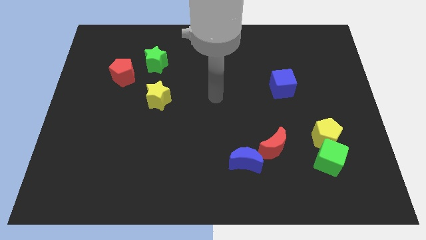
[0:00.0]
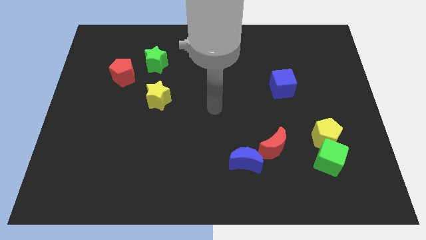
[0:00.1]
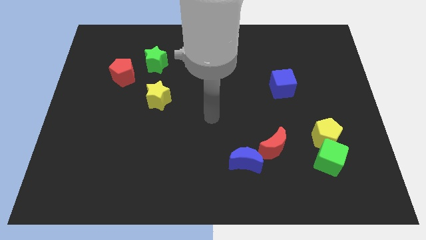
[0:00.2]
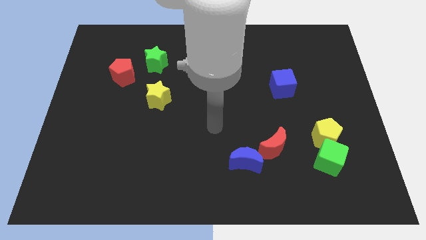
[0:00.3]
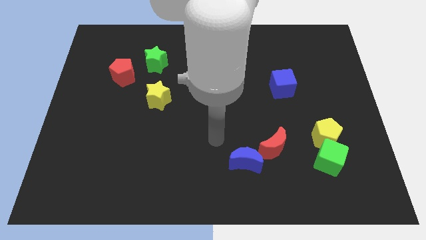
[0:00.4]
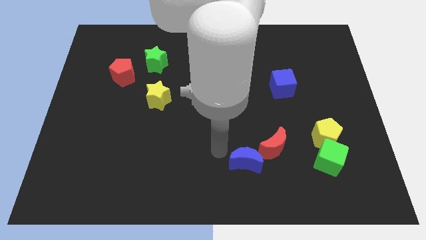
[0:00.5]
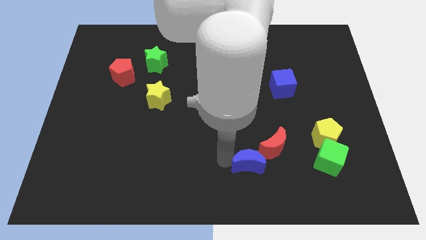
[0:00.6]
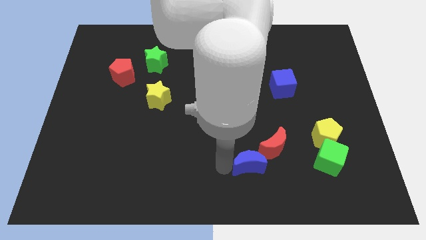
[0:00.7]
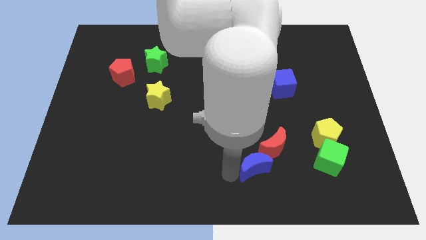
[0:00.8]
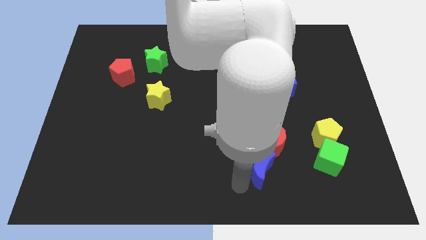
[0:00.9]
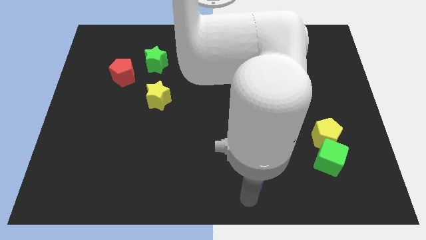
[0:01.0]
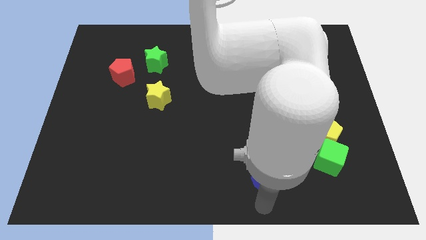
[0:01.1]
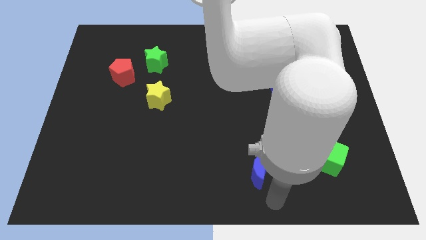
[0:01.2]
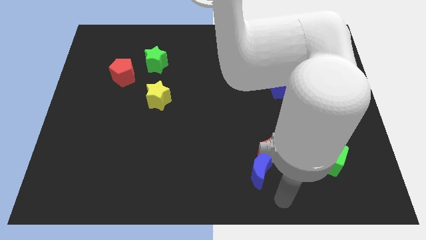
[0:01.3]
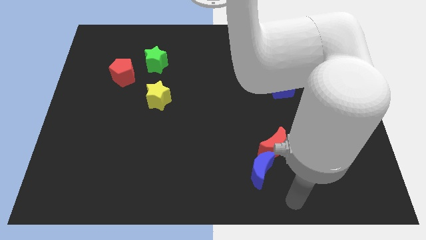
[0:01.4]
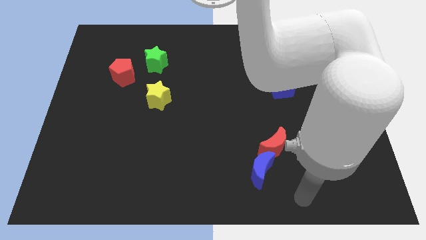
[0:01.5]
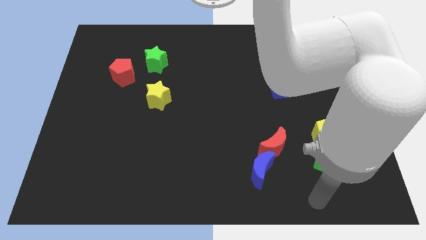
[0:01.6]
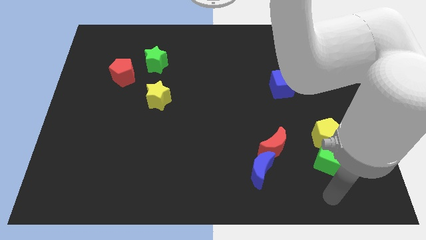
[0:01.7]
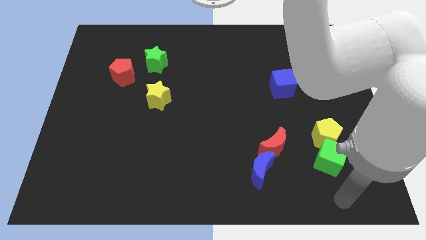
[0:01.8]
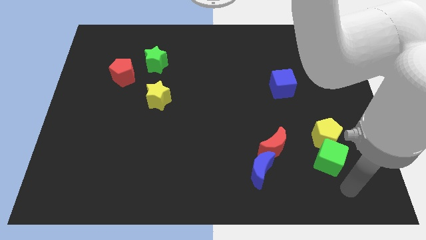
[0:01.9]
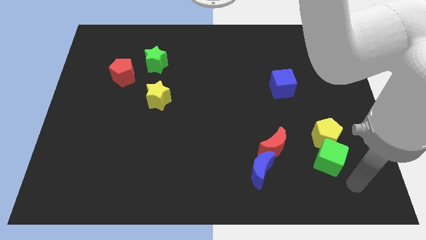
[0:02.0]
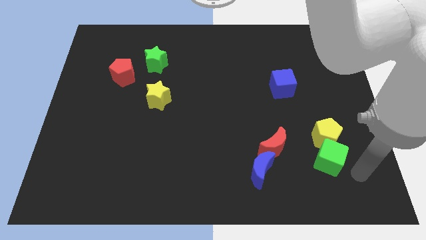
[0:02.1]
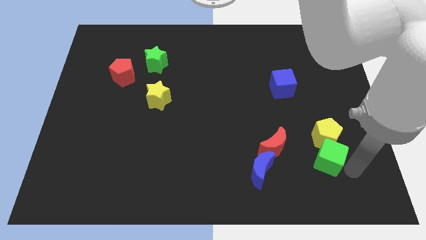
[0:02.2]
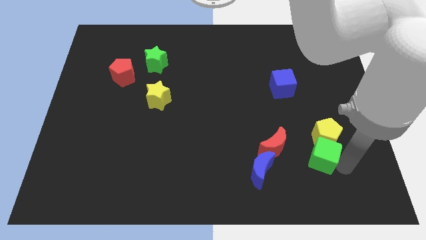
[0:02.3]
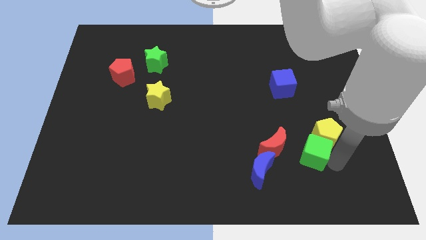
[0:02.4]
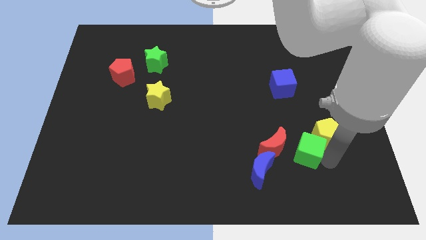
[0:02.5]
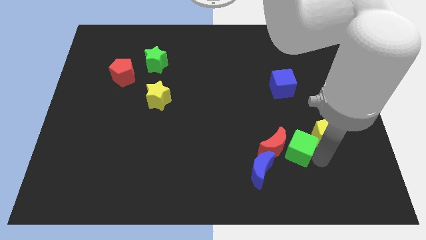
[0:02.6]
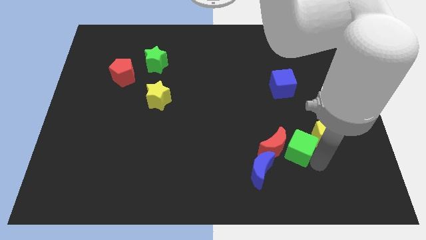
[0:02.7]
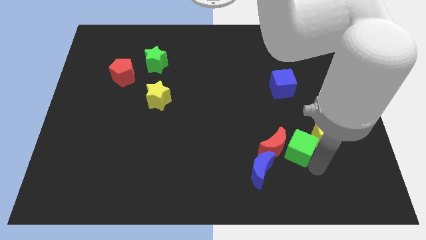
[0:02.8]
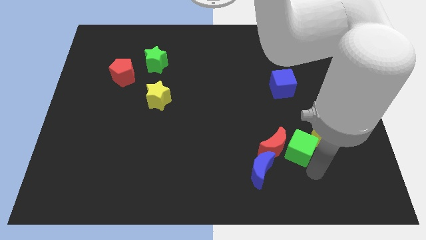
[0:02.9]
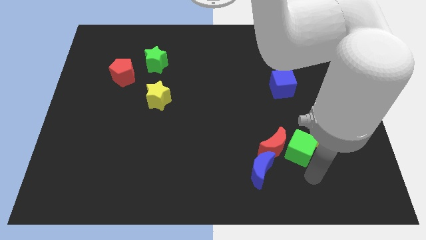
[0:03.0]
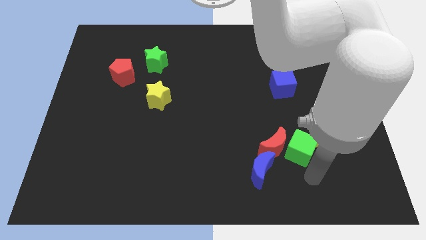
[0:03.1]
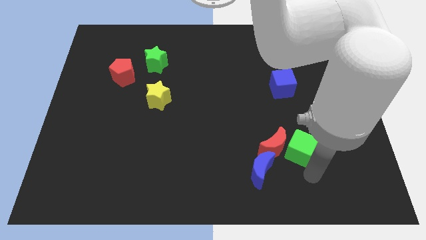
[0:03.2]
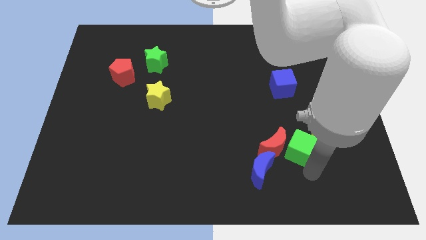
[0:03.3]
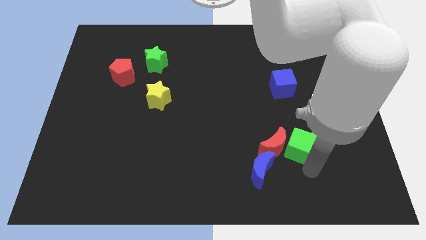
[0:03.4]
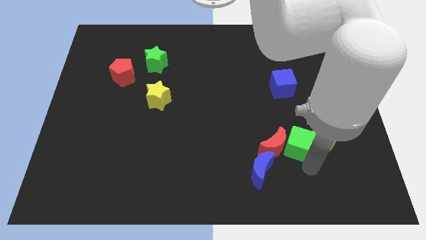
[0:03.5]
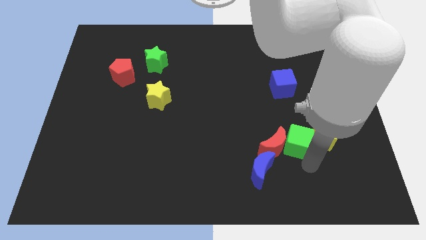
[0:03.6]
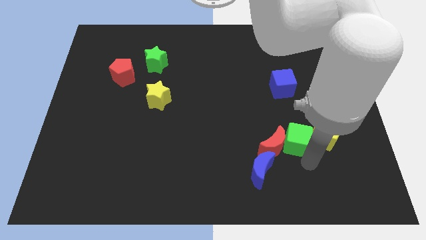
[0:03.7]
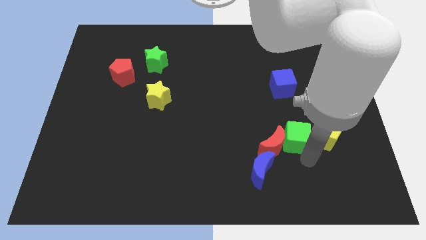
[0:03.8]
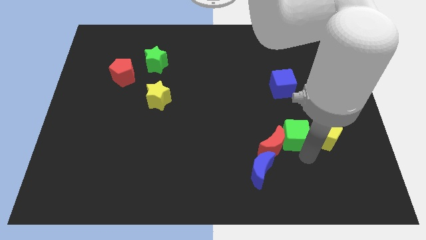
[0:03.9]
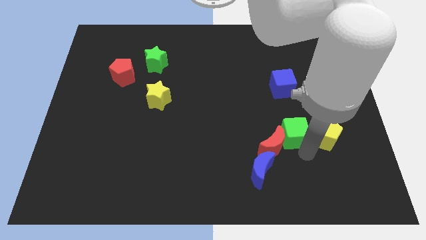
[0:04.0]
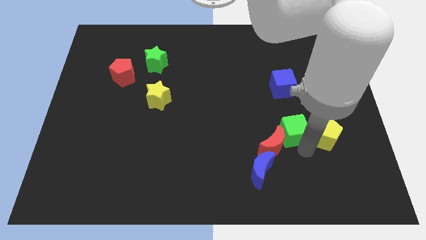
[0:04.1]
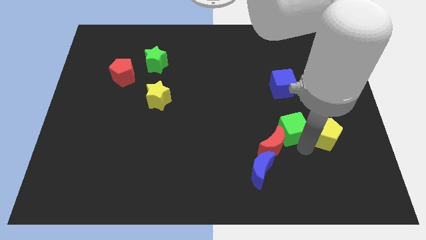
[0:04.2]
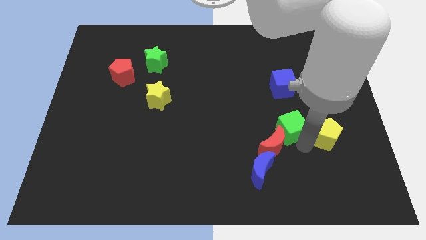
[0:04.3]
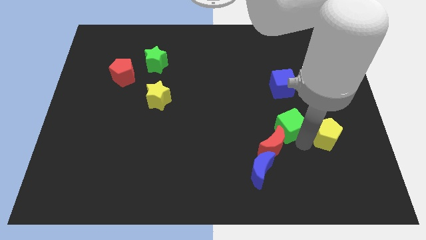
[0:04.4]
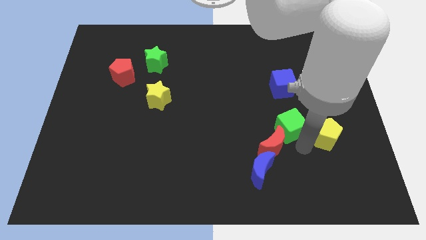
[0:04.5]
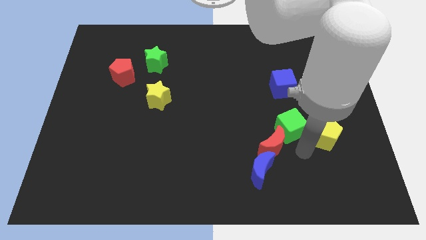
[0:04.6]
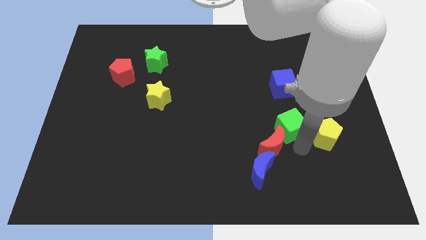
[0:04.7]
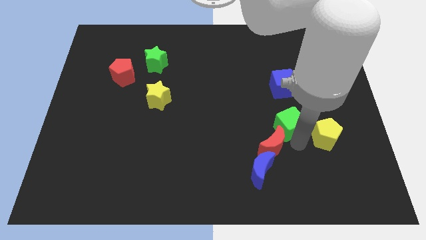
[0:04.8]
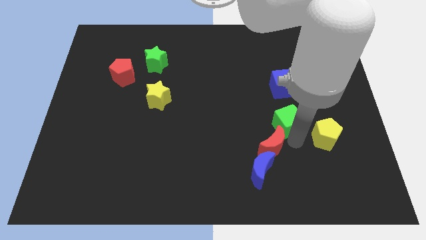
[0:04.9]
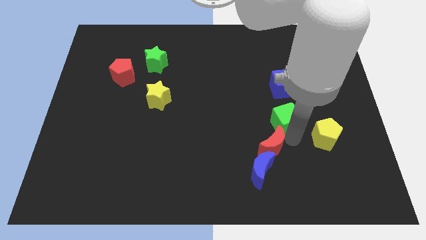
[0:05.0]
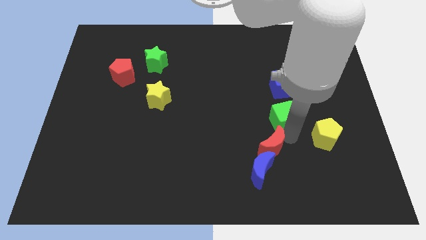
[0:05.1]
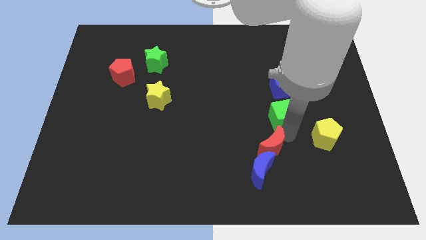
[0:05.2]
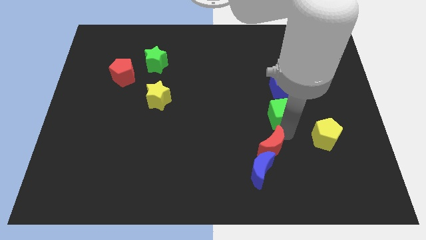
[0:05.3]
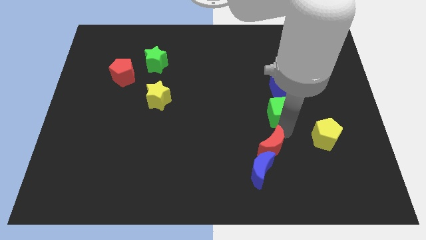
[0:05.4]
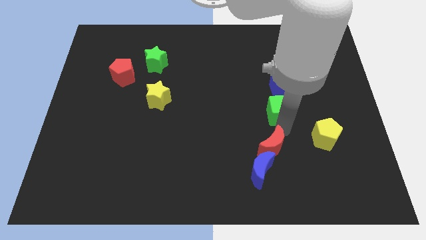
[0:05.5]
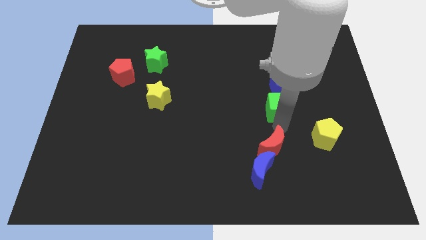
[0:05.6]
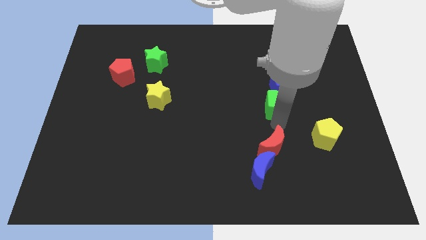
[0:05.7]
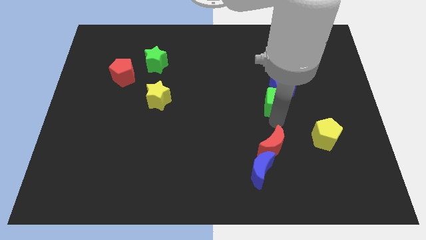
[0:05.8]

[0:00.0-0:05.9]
move the green cube towards the blue cube

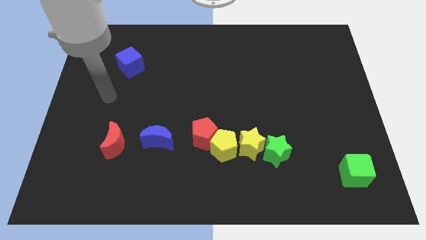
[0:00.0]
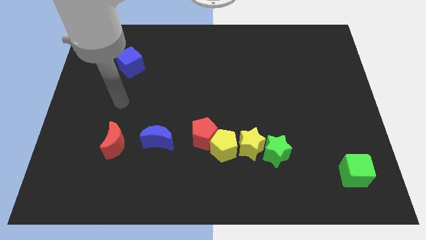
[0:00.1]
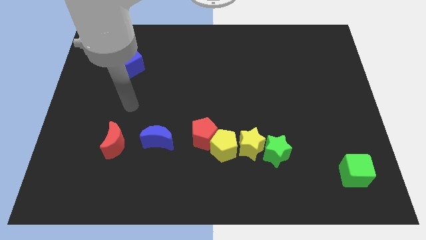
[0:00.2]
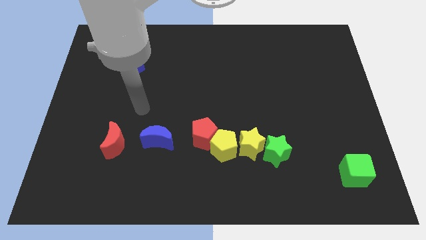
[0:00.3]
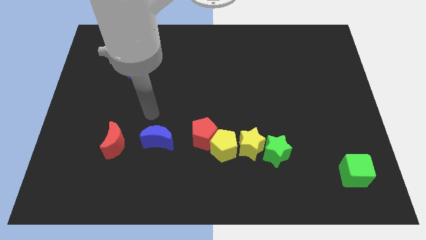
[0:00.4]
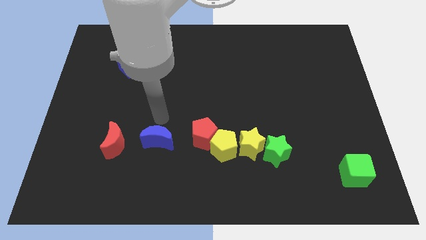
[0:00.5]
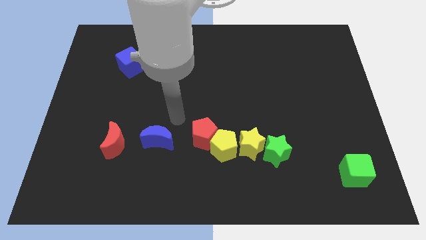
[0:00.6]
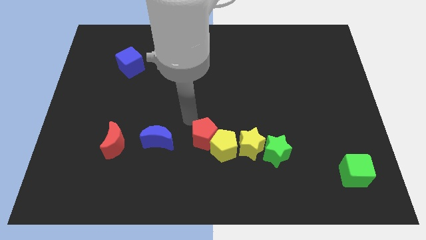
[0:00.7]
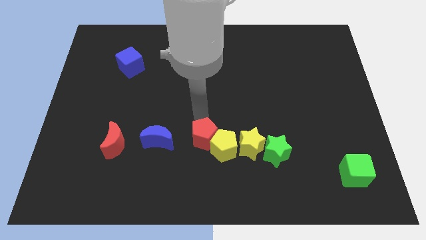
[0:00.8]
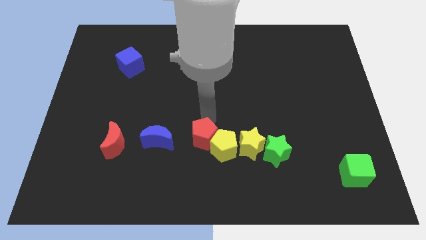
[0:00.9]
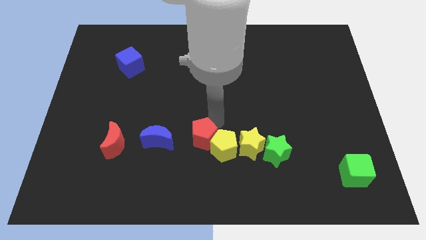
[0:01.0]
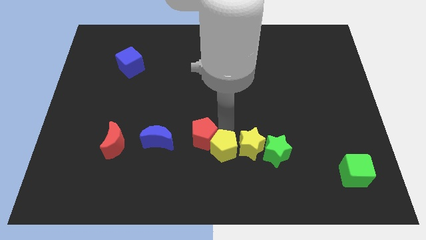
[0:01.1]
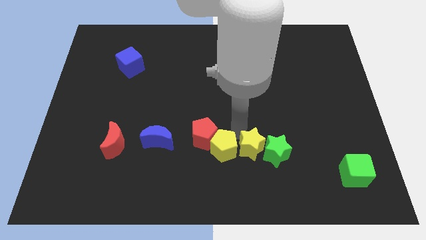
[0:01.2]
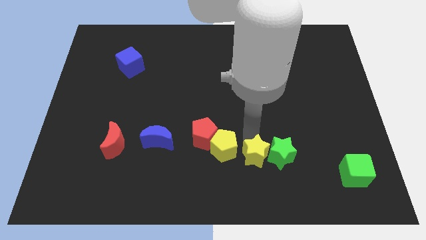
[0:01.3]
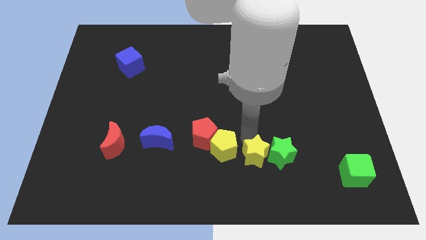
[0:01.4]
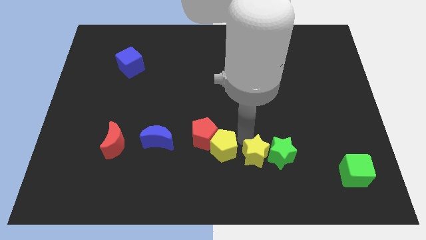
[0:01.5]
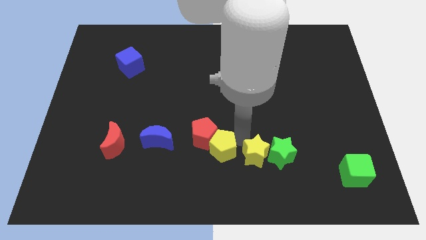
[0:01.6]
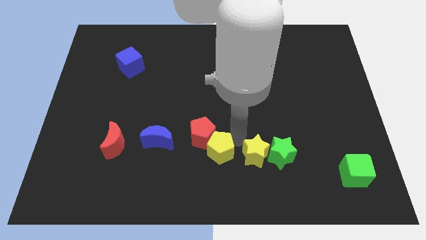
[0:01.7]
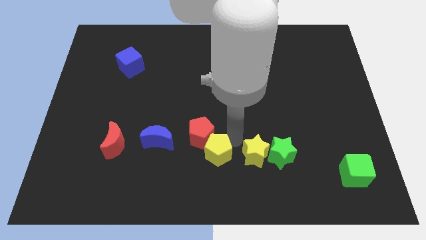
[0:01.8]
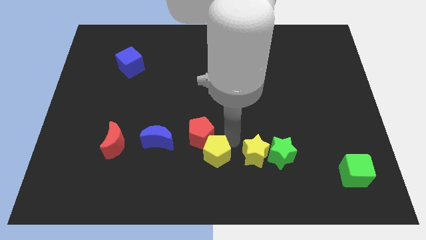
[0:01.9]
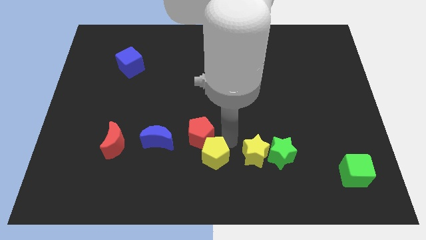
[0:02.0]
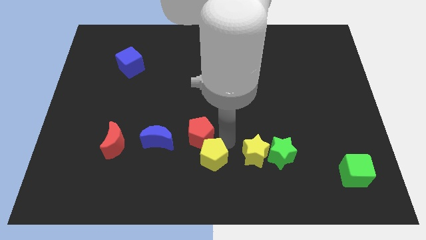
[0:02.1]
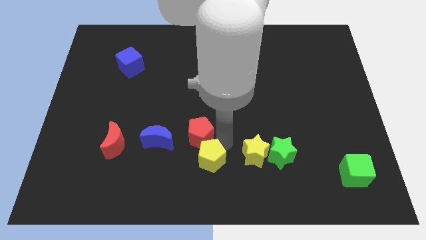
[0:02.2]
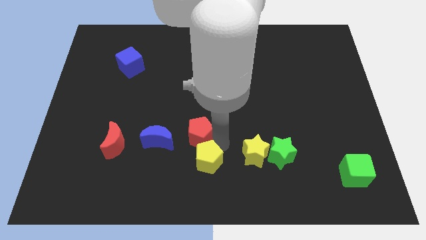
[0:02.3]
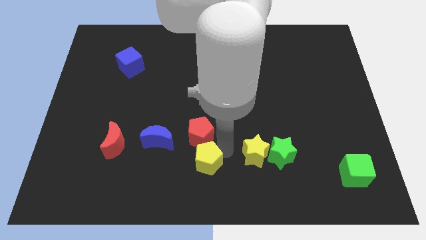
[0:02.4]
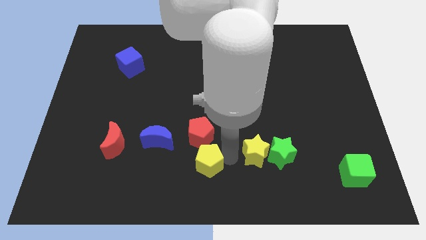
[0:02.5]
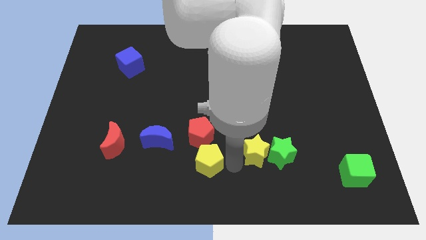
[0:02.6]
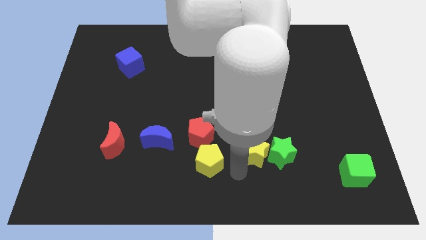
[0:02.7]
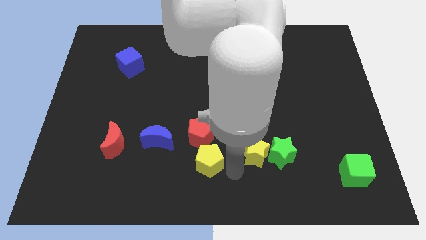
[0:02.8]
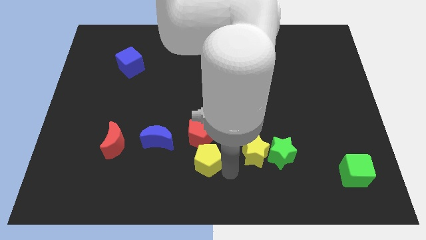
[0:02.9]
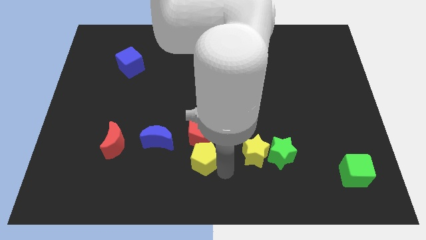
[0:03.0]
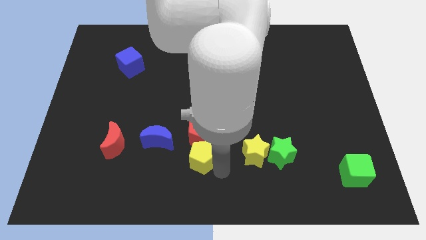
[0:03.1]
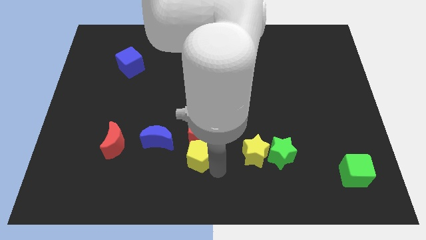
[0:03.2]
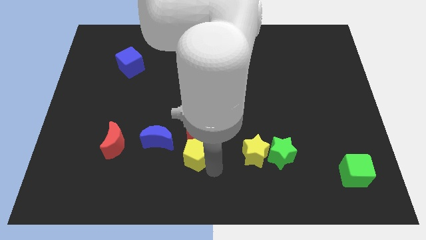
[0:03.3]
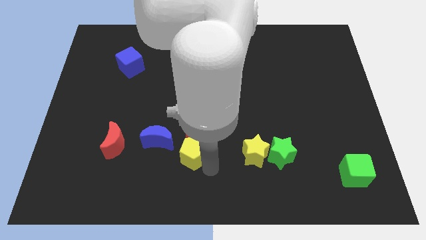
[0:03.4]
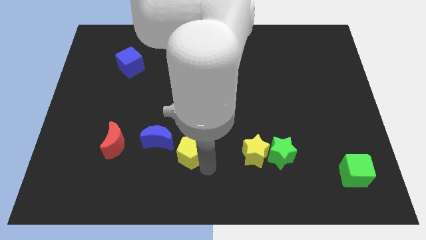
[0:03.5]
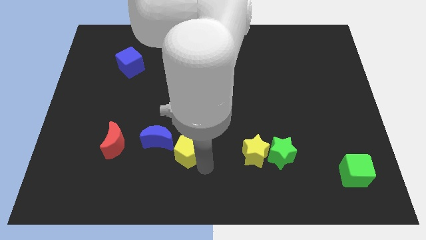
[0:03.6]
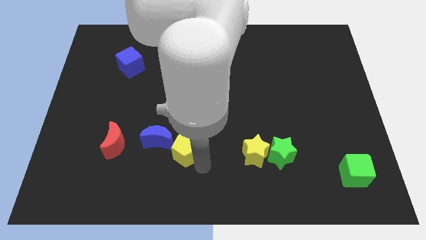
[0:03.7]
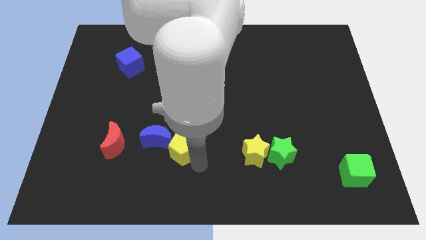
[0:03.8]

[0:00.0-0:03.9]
slide the yellow pentagon to the blue moon
